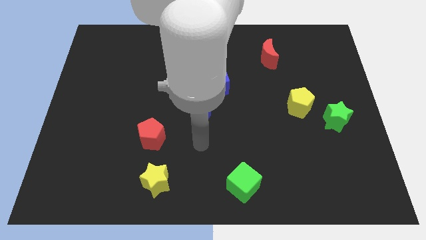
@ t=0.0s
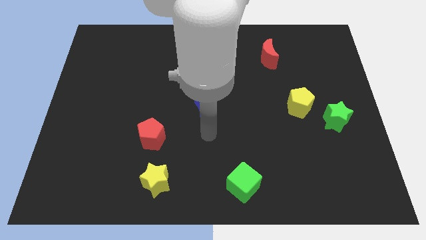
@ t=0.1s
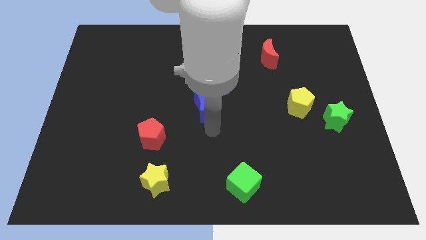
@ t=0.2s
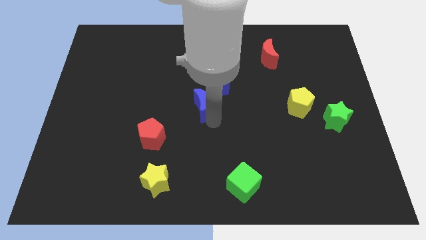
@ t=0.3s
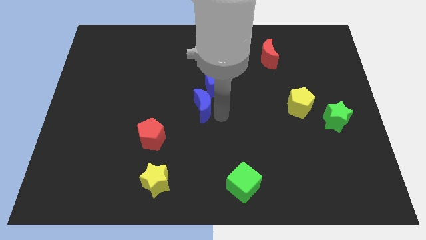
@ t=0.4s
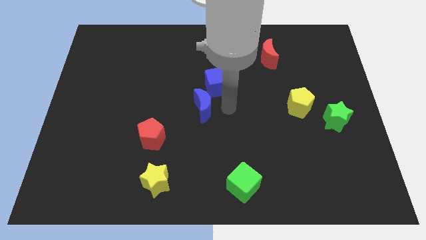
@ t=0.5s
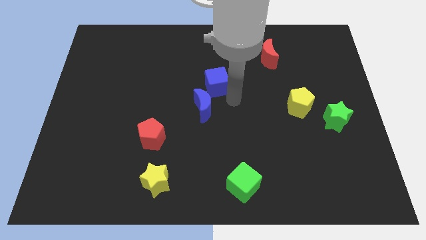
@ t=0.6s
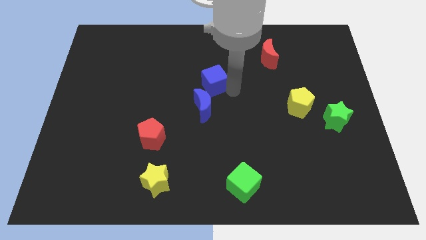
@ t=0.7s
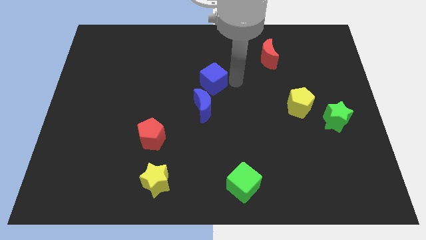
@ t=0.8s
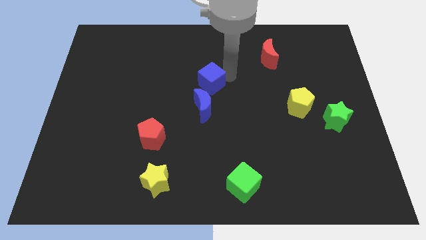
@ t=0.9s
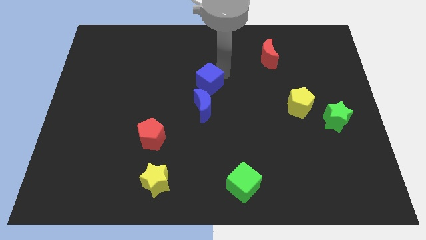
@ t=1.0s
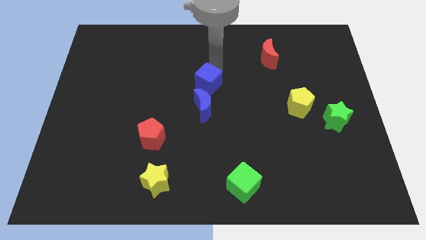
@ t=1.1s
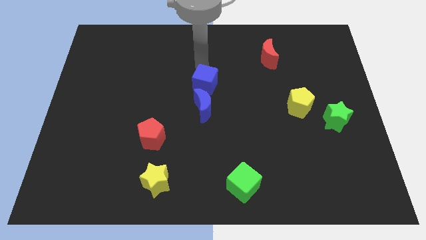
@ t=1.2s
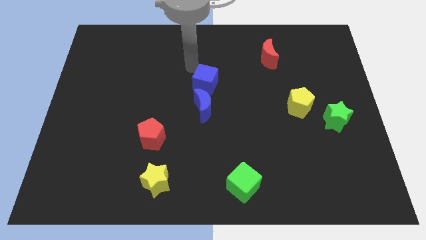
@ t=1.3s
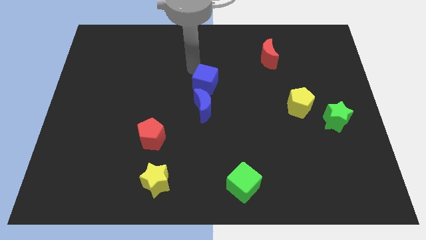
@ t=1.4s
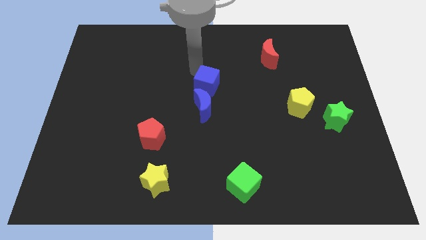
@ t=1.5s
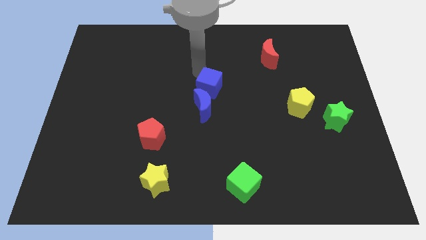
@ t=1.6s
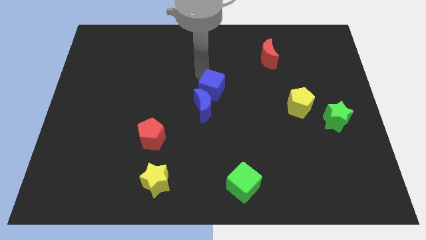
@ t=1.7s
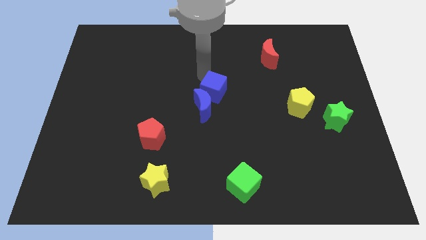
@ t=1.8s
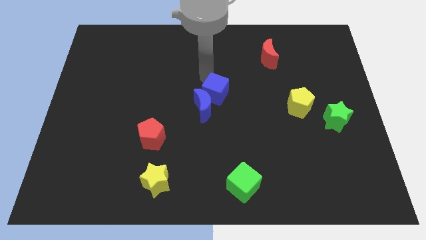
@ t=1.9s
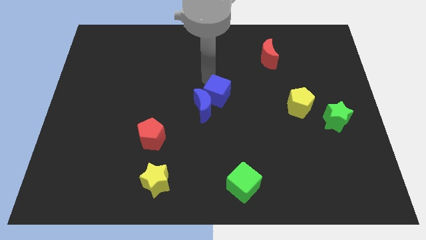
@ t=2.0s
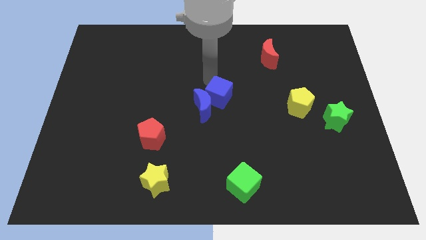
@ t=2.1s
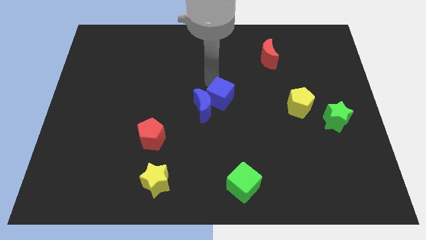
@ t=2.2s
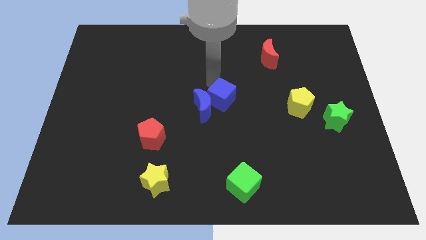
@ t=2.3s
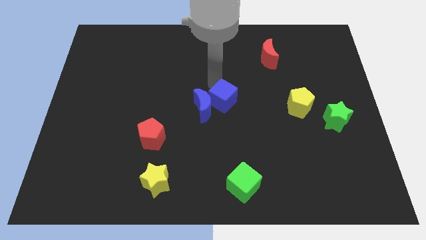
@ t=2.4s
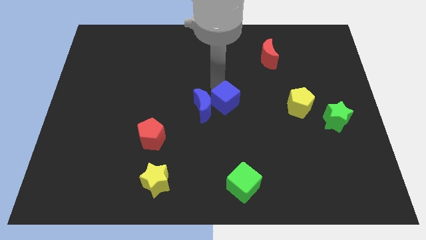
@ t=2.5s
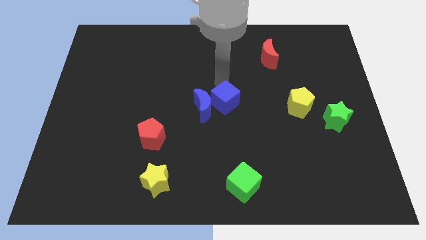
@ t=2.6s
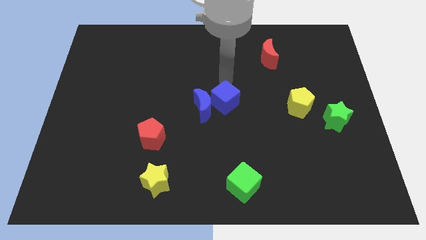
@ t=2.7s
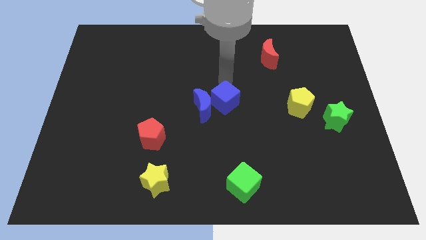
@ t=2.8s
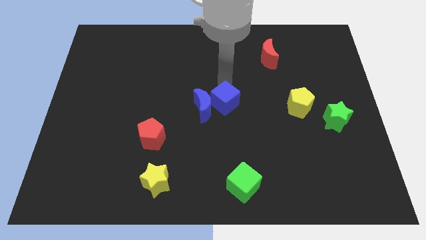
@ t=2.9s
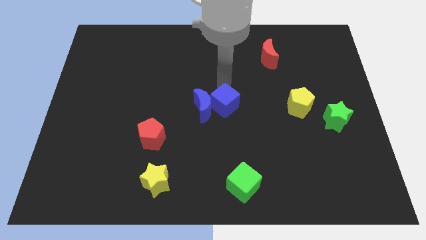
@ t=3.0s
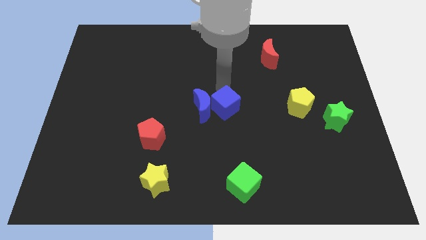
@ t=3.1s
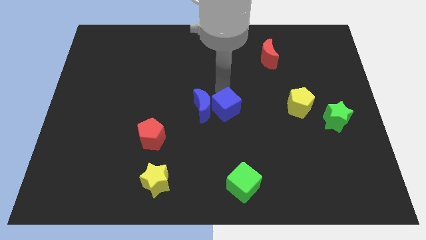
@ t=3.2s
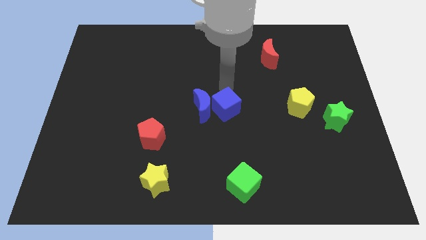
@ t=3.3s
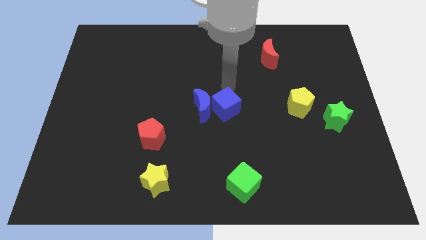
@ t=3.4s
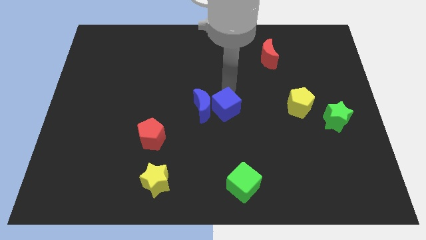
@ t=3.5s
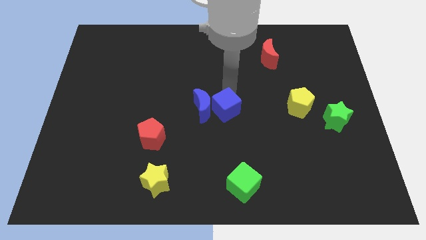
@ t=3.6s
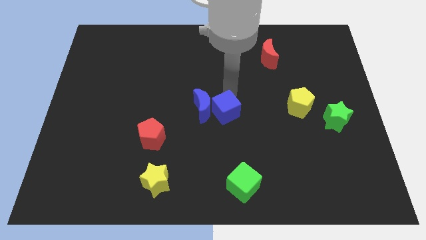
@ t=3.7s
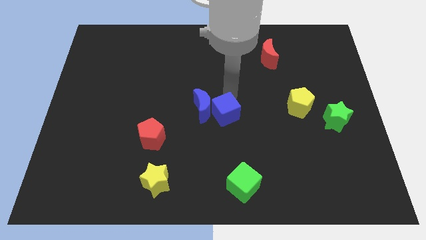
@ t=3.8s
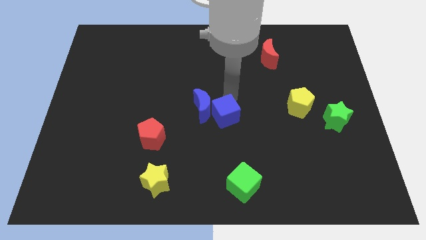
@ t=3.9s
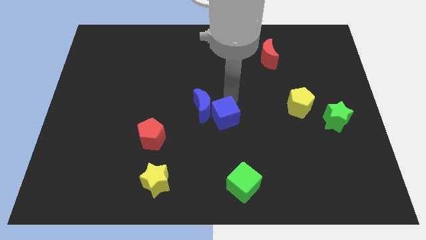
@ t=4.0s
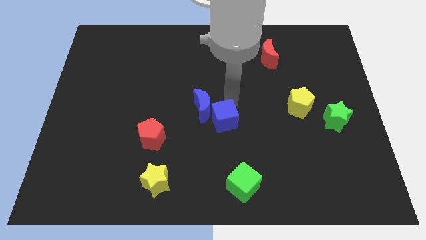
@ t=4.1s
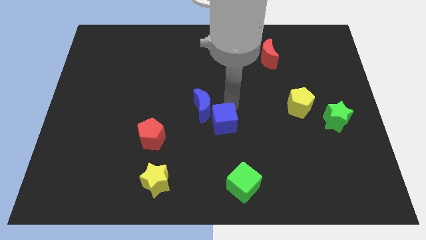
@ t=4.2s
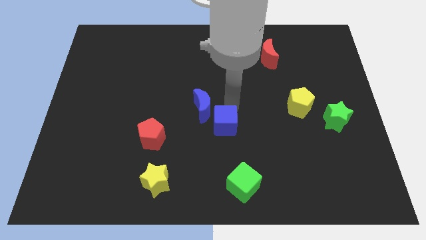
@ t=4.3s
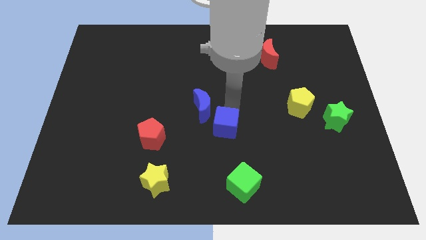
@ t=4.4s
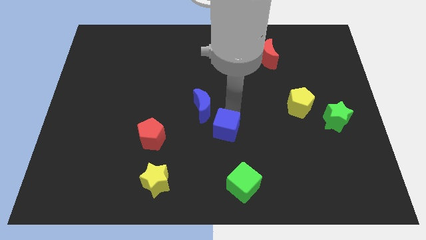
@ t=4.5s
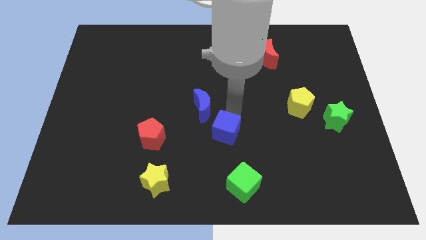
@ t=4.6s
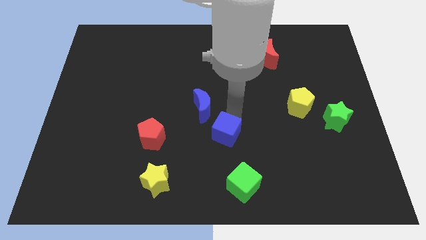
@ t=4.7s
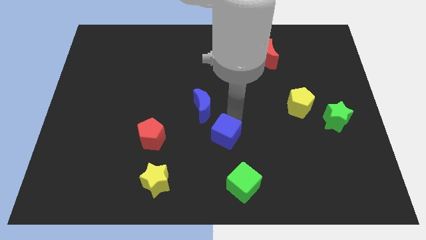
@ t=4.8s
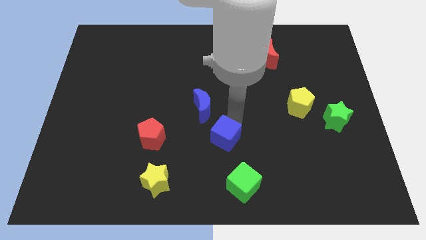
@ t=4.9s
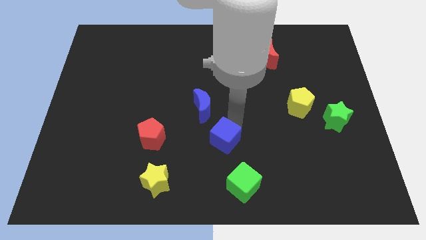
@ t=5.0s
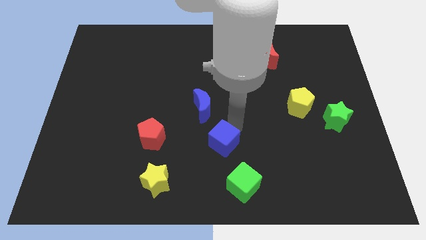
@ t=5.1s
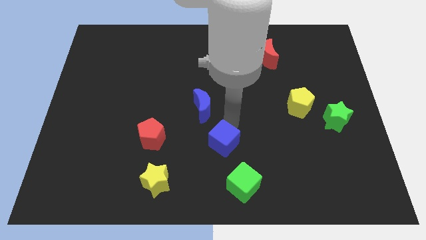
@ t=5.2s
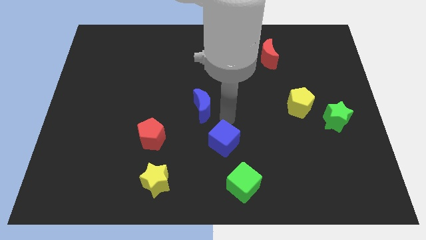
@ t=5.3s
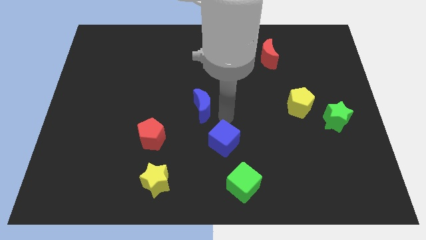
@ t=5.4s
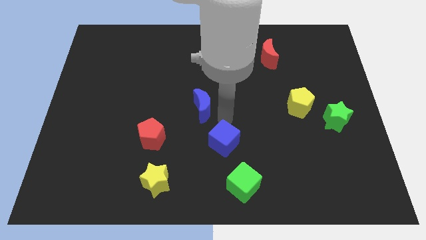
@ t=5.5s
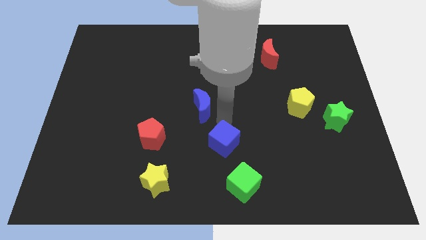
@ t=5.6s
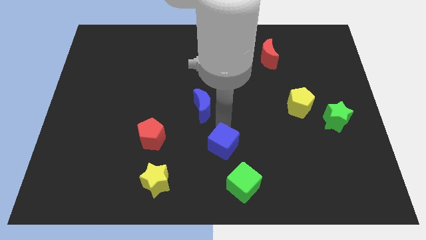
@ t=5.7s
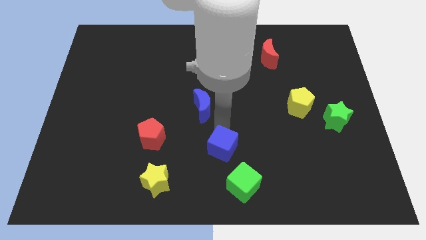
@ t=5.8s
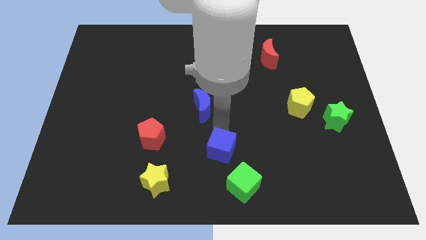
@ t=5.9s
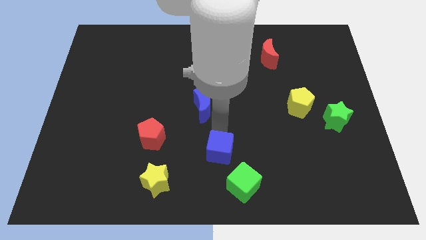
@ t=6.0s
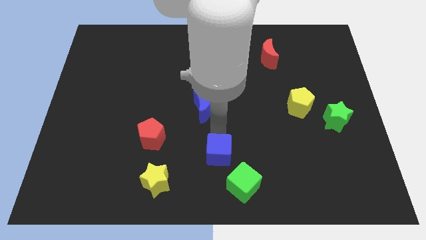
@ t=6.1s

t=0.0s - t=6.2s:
put the blue cube to the bottom side
